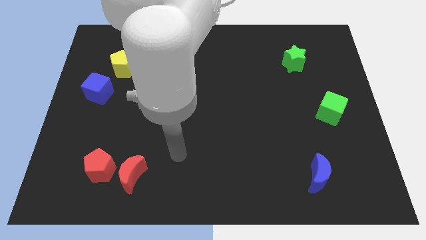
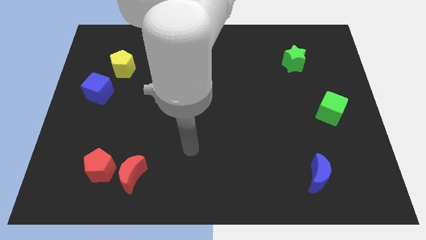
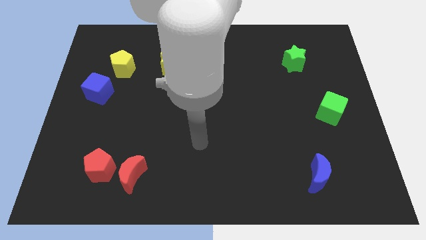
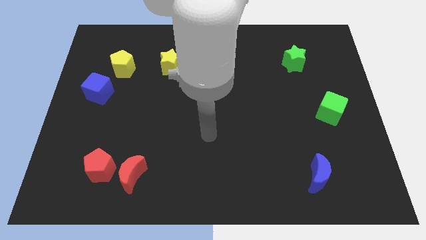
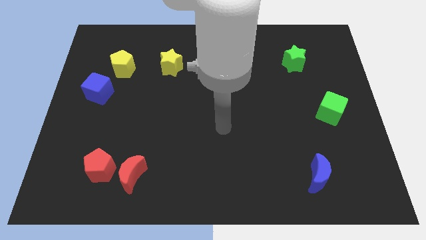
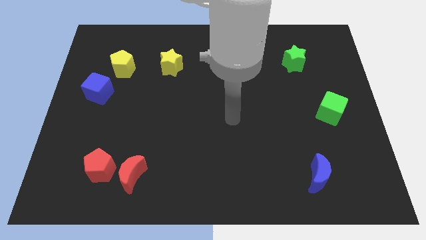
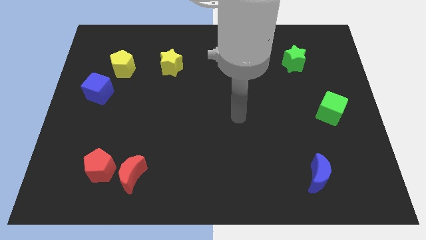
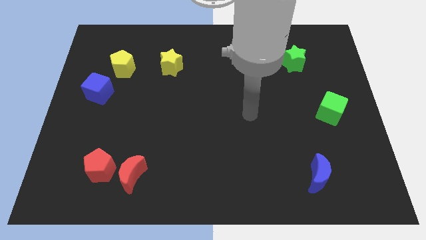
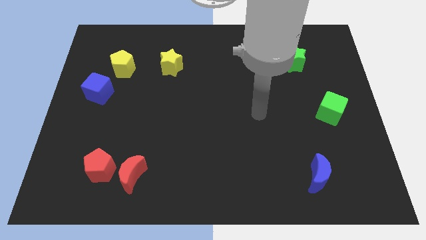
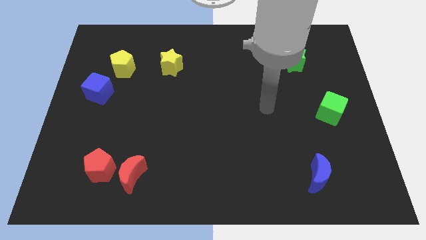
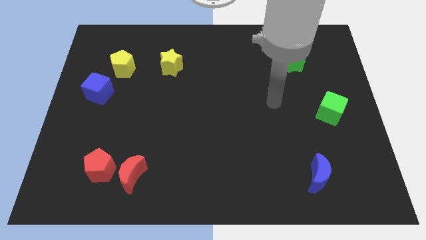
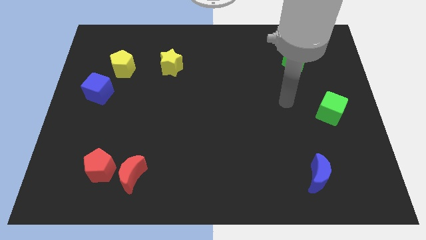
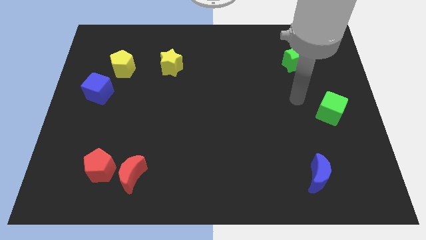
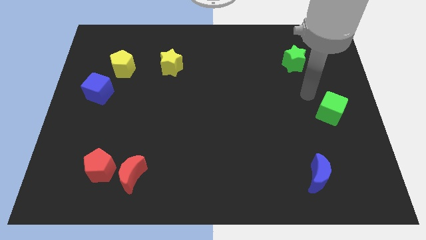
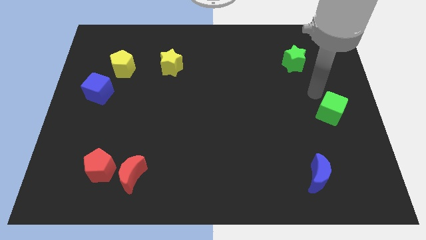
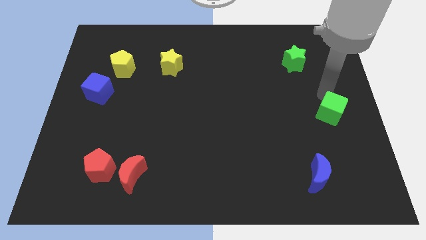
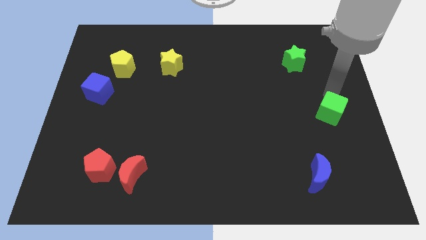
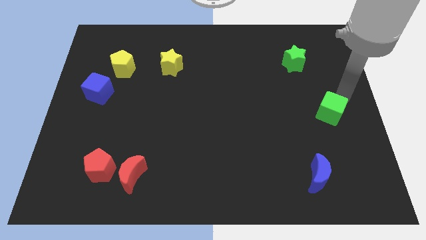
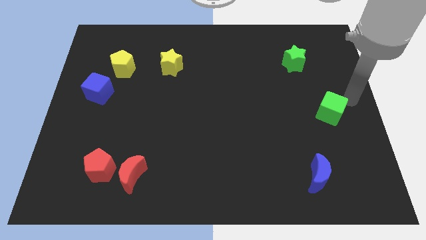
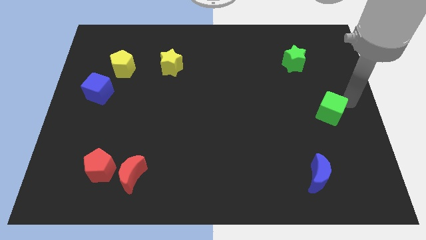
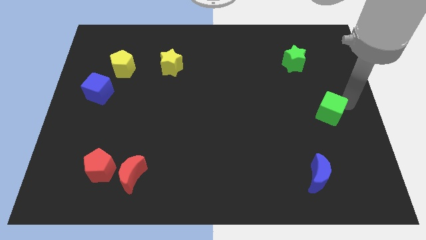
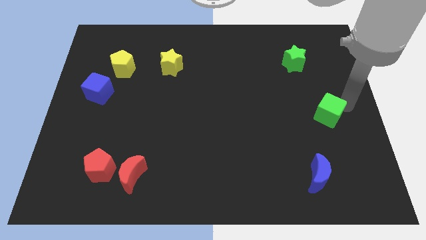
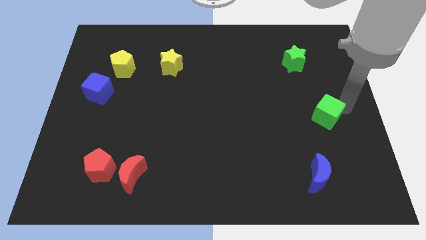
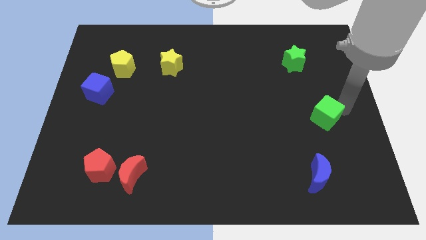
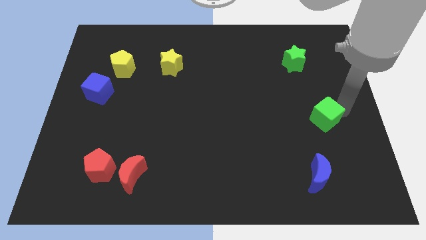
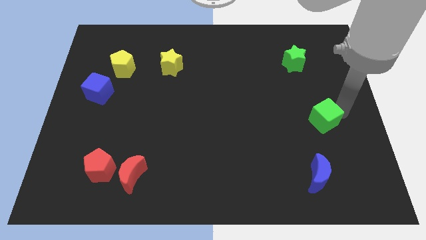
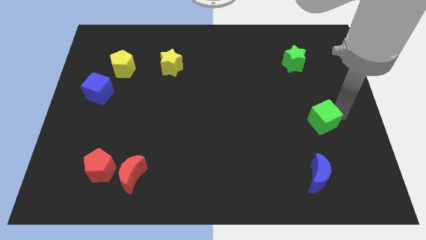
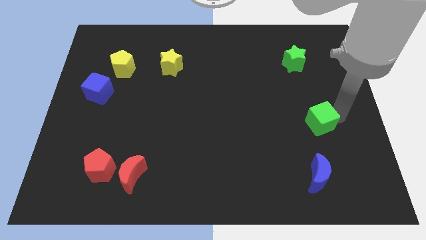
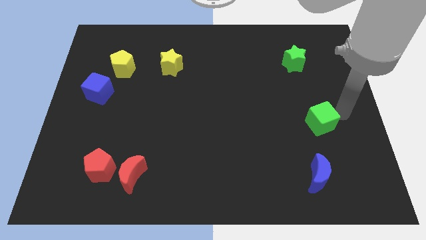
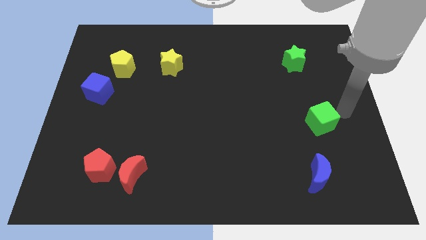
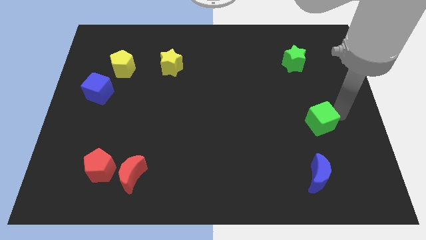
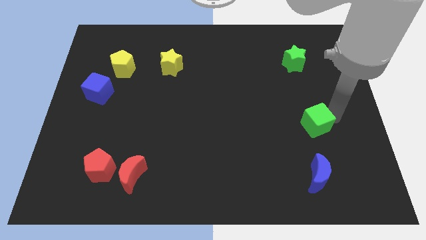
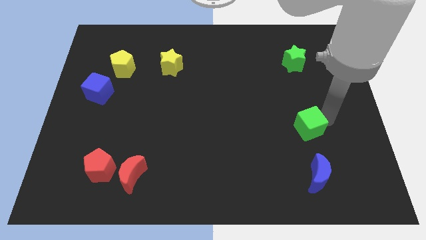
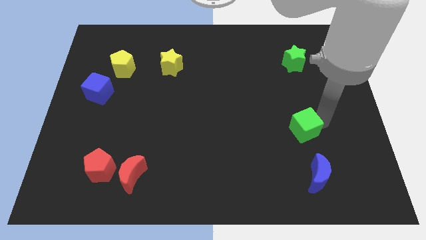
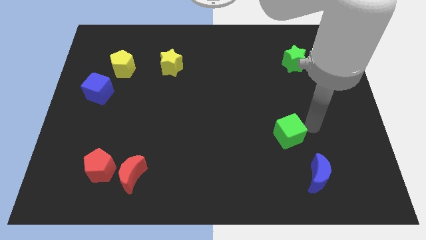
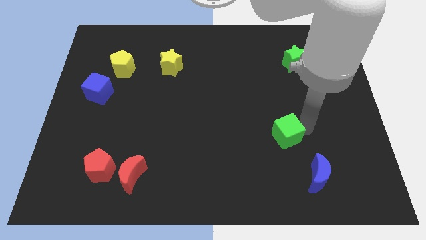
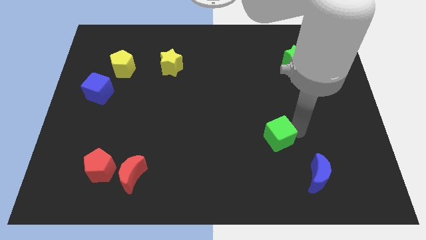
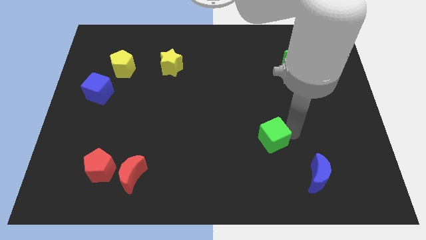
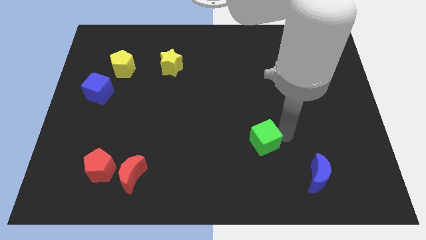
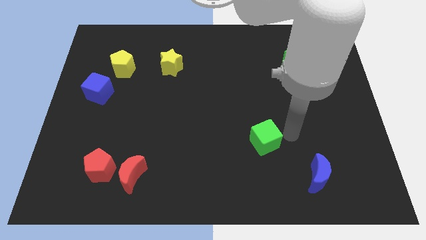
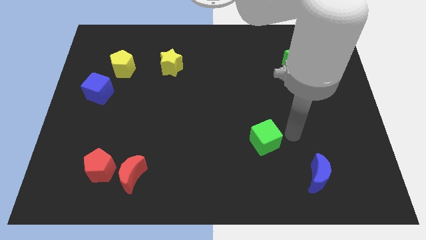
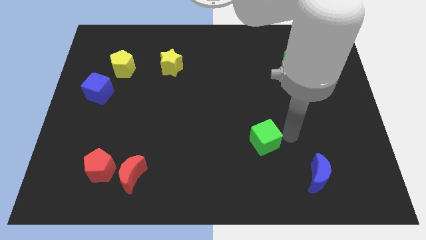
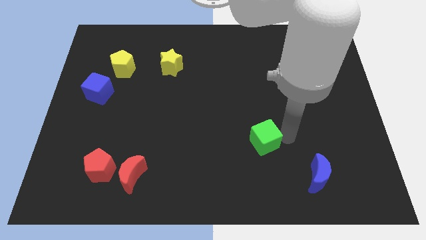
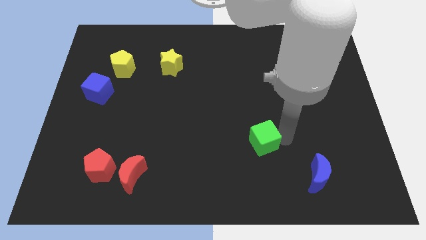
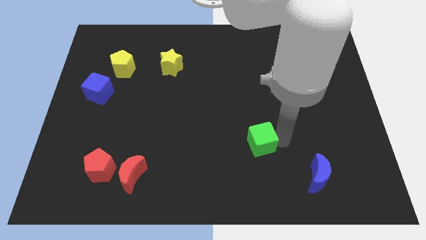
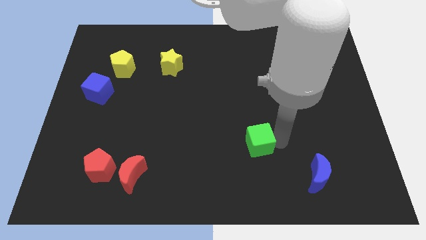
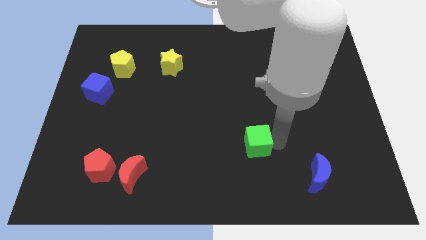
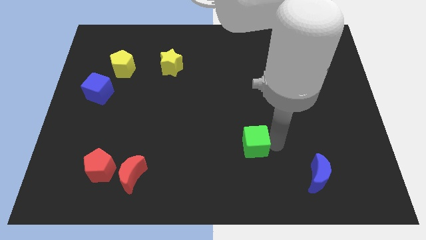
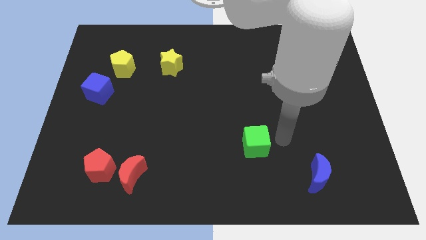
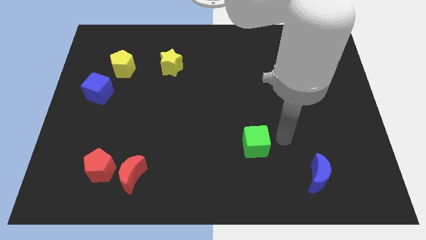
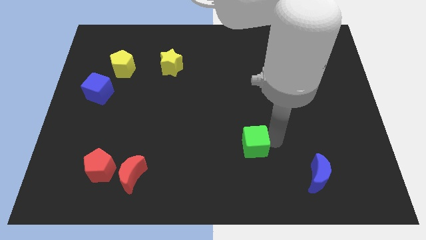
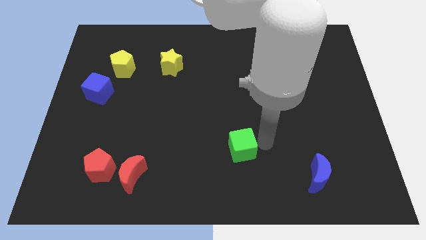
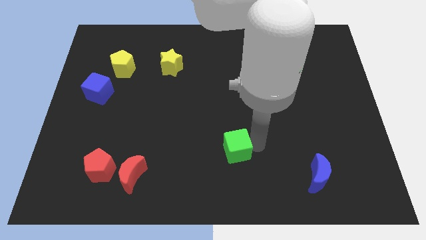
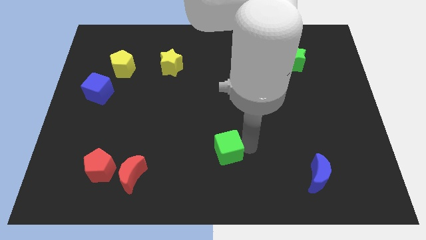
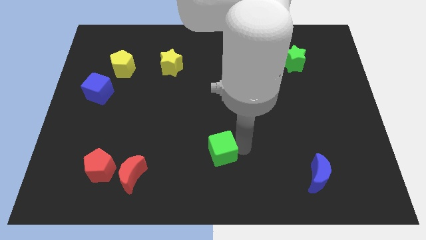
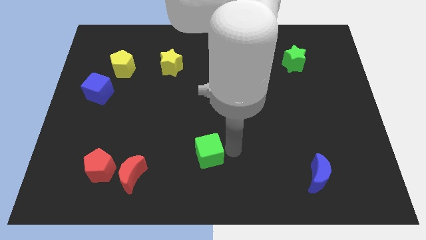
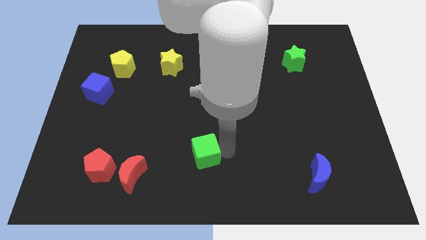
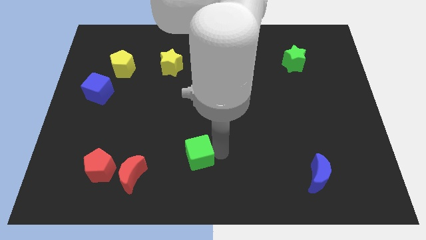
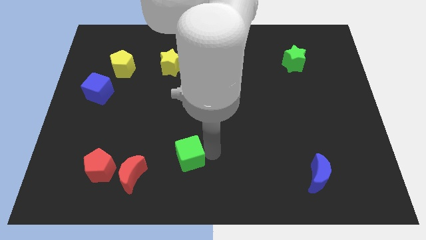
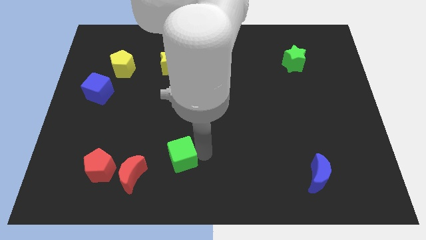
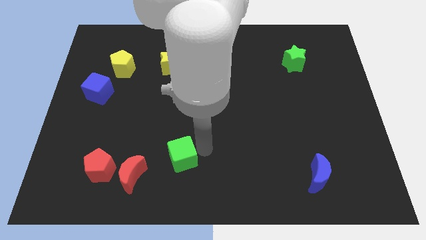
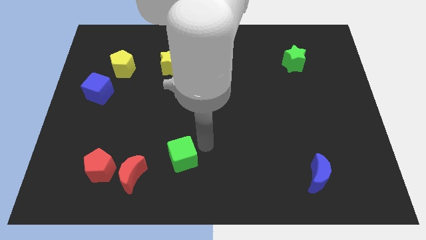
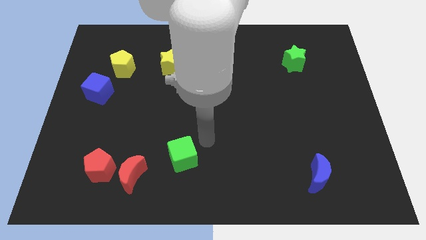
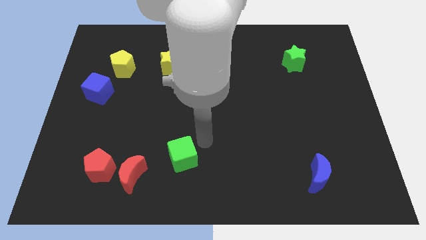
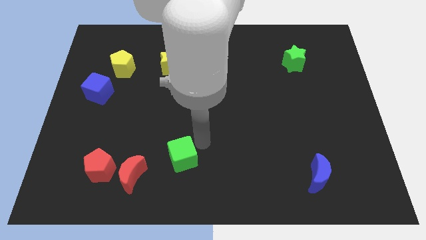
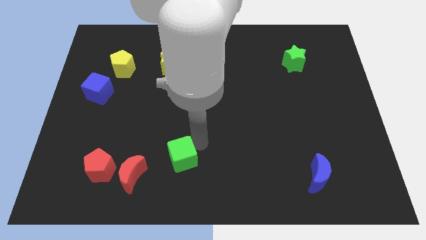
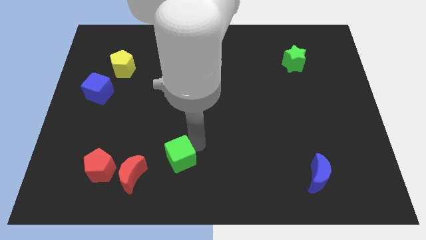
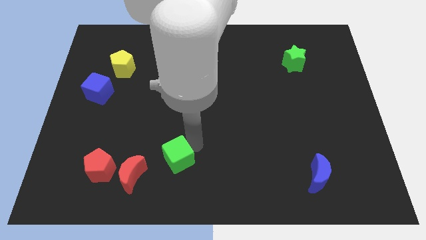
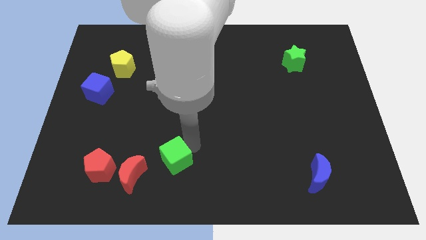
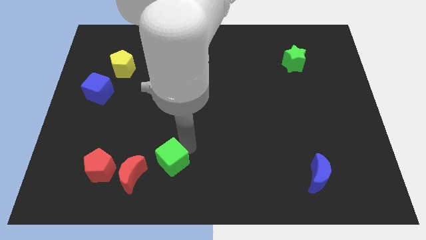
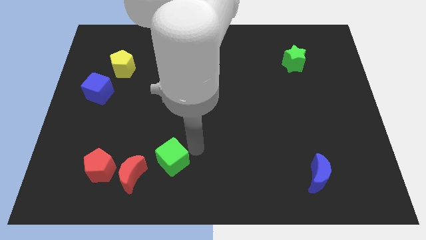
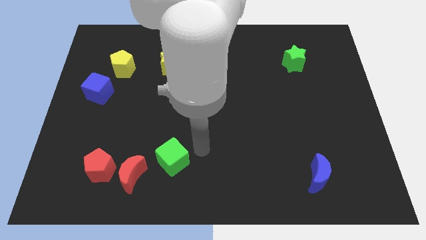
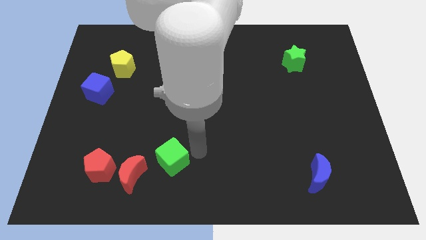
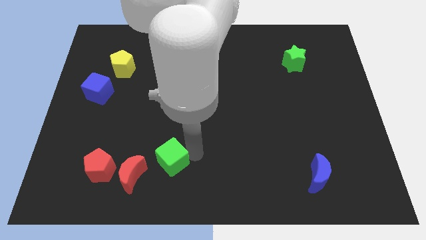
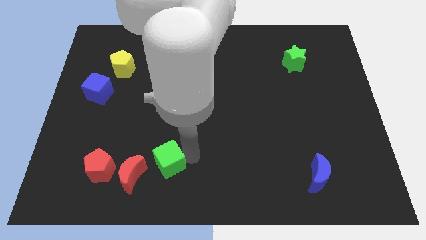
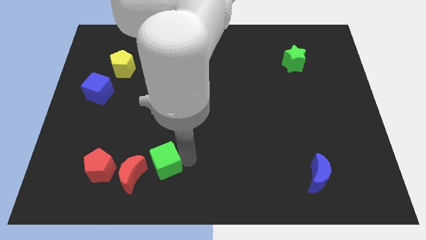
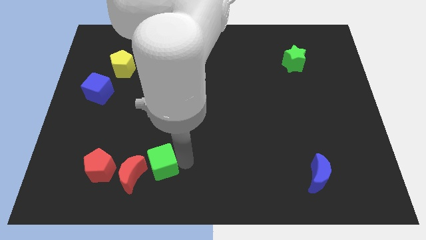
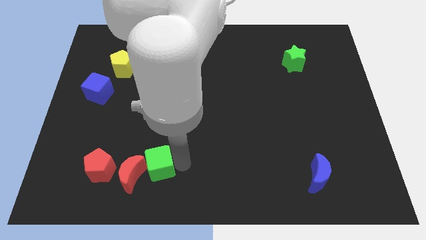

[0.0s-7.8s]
move the green cube towards the red moon

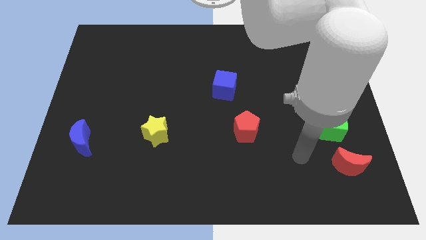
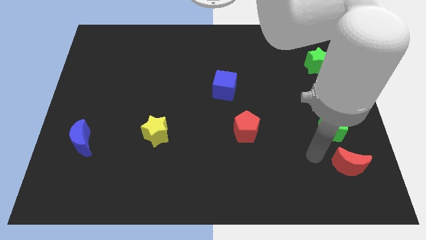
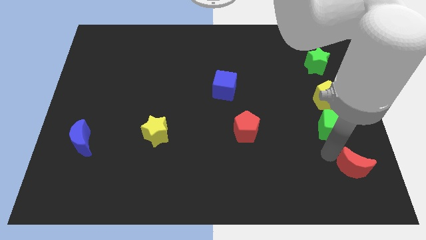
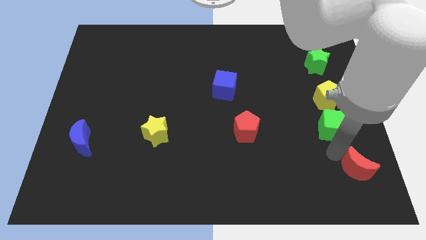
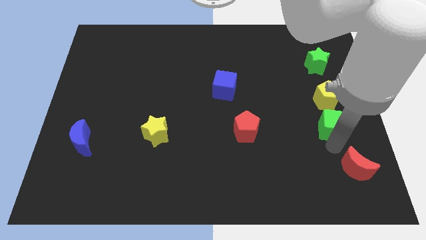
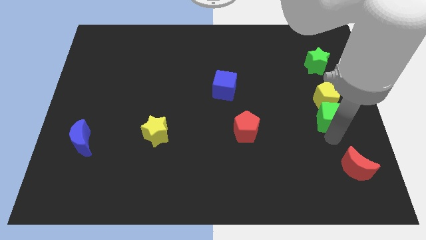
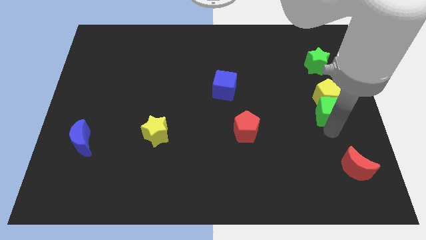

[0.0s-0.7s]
push the green cube next to the yellow pentagon
